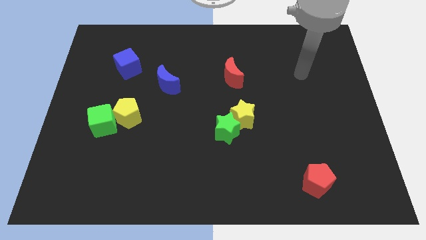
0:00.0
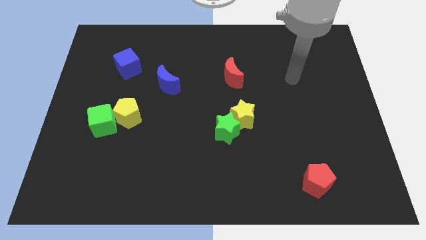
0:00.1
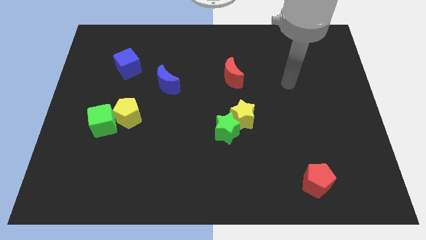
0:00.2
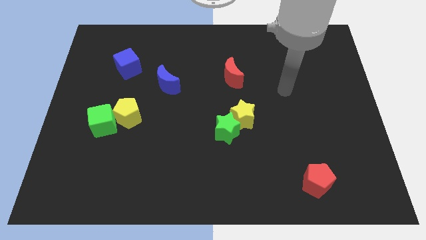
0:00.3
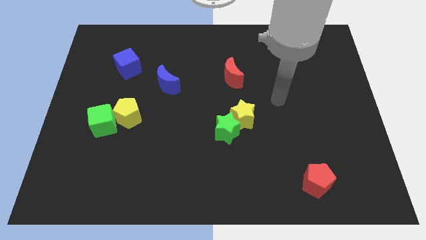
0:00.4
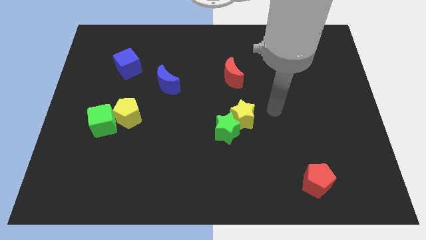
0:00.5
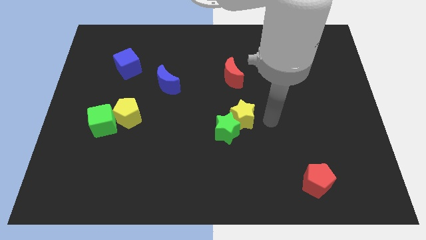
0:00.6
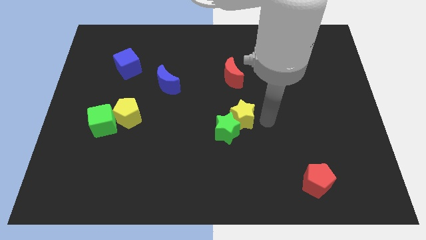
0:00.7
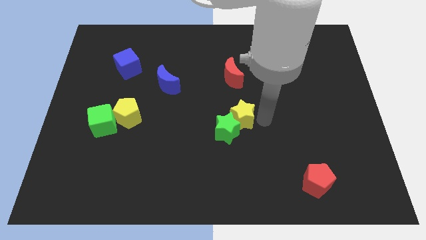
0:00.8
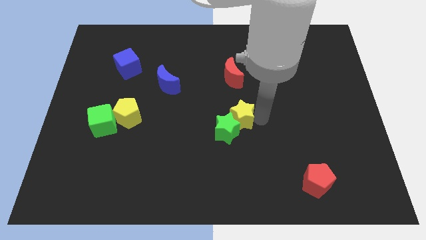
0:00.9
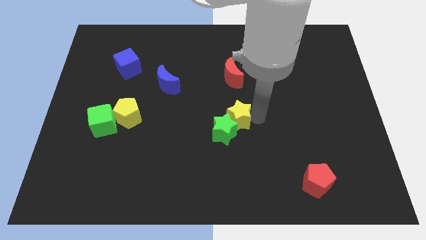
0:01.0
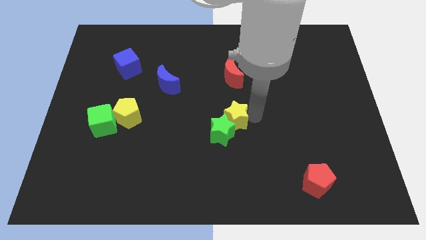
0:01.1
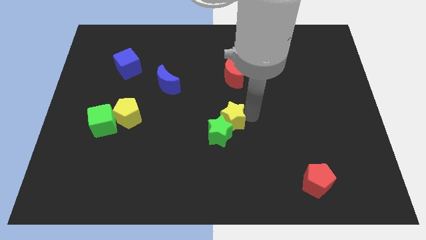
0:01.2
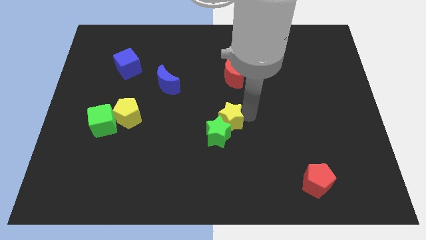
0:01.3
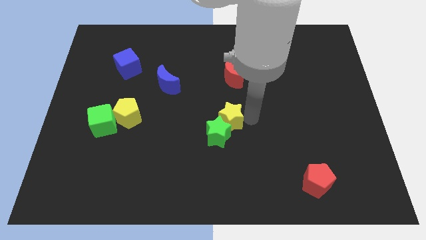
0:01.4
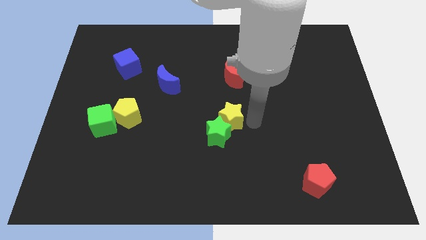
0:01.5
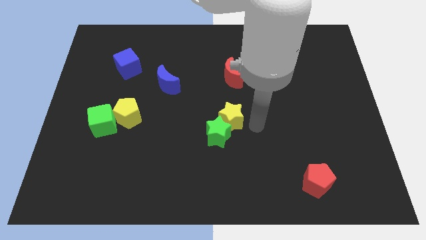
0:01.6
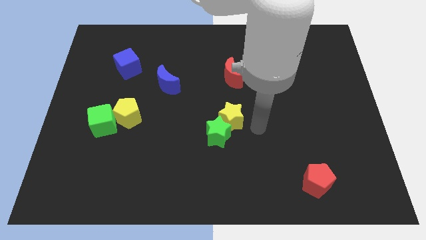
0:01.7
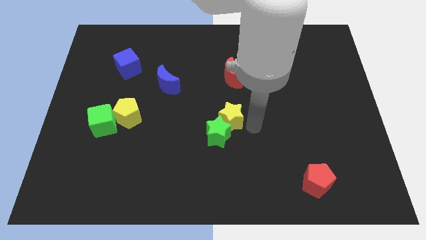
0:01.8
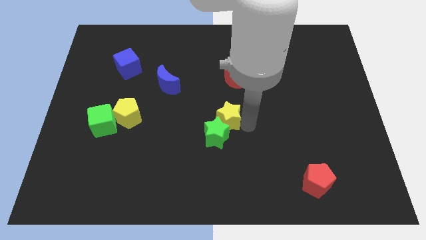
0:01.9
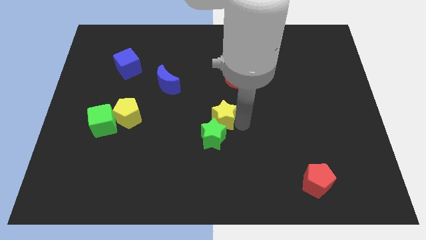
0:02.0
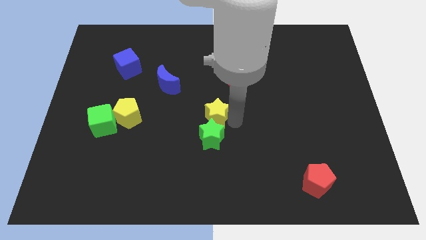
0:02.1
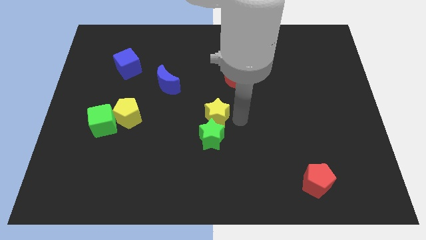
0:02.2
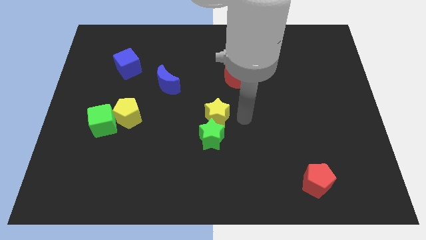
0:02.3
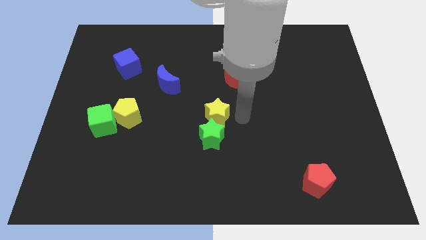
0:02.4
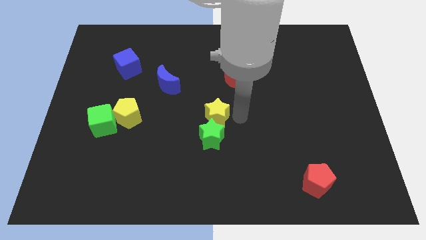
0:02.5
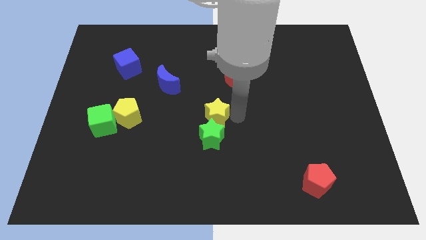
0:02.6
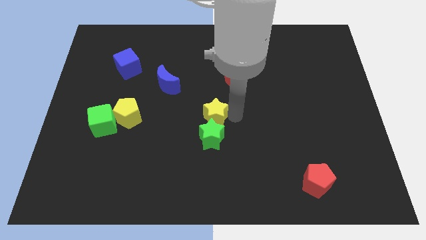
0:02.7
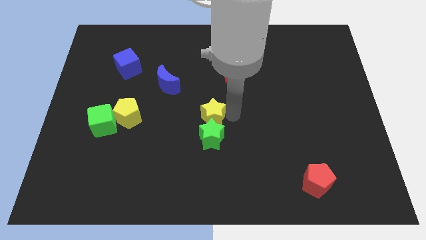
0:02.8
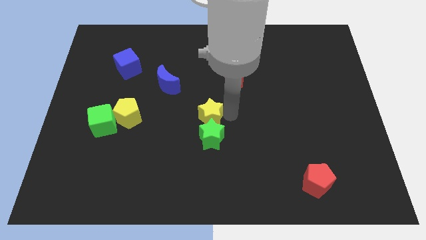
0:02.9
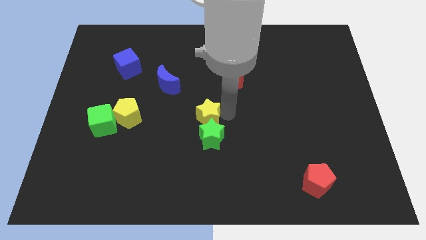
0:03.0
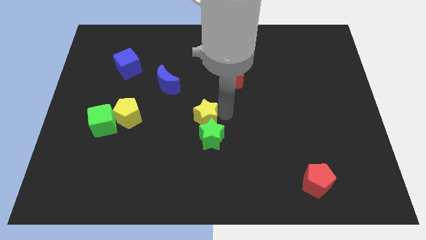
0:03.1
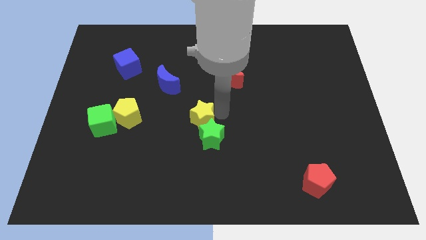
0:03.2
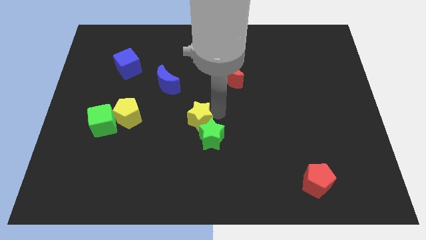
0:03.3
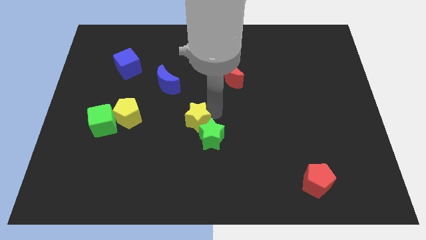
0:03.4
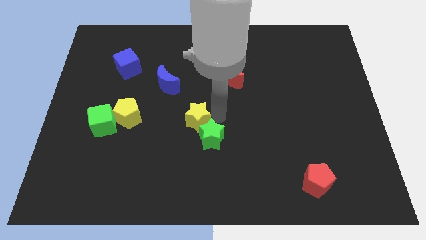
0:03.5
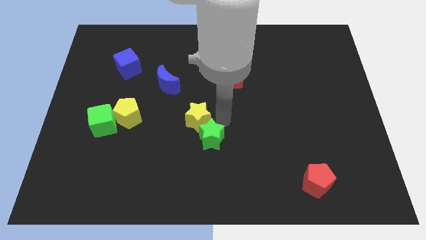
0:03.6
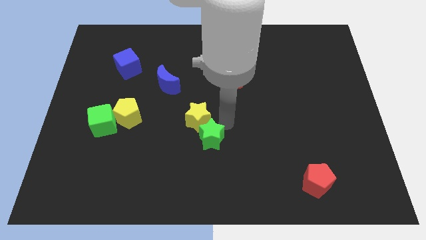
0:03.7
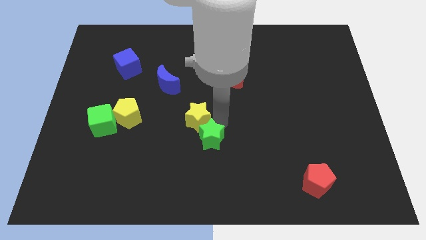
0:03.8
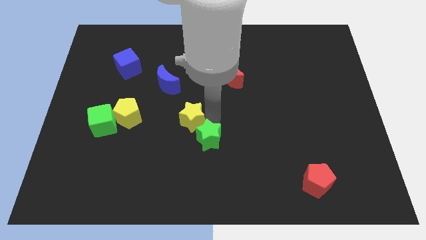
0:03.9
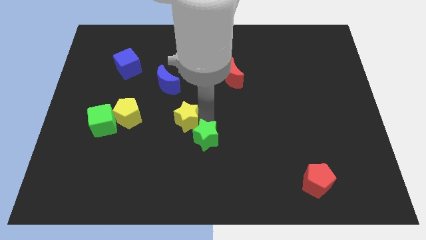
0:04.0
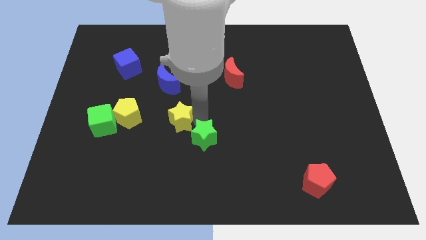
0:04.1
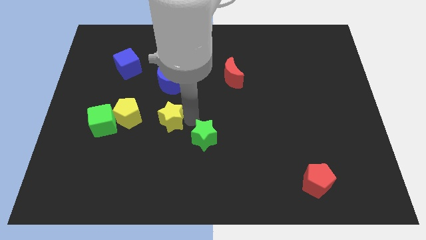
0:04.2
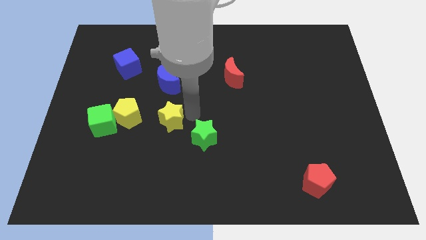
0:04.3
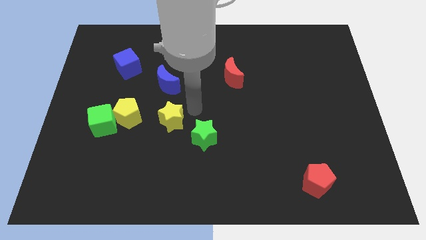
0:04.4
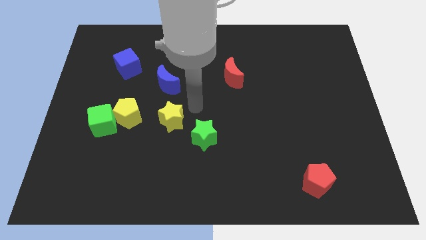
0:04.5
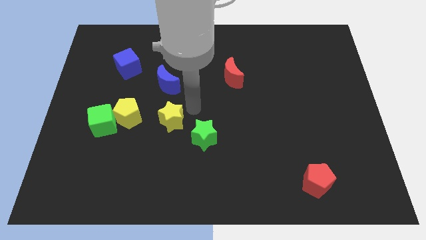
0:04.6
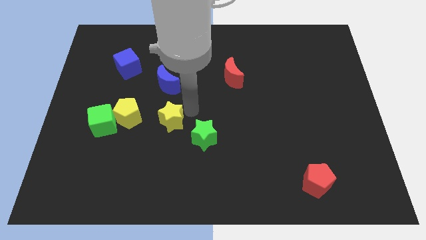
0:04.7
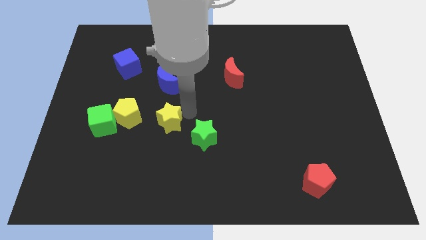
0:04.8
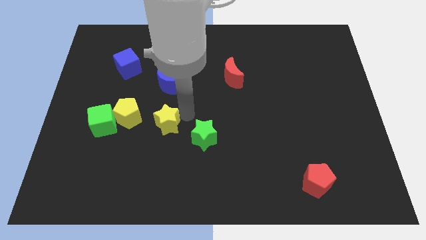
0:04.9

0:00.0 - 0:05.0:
push the yellow star to the bottom right side of the yellow pentagon

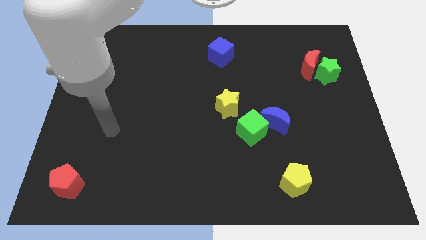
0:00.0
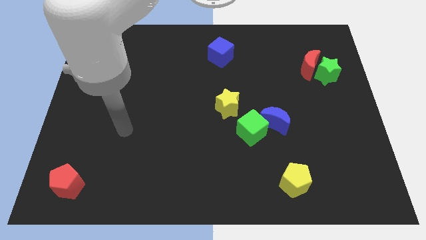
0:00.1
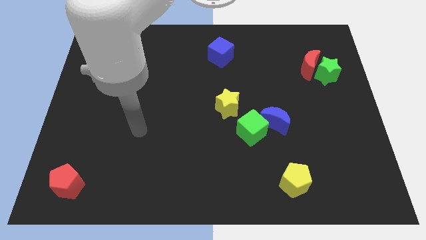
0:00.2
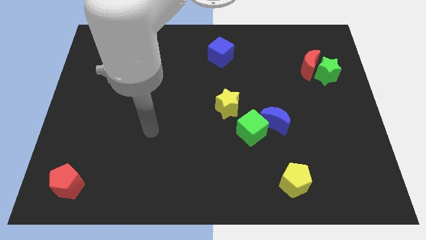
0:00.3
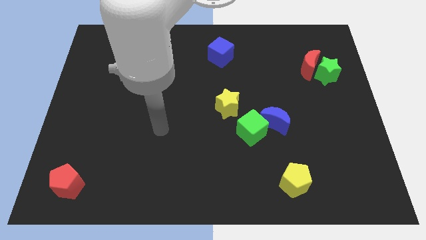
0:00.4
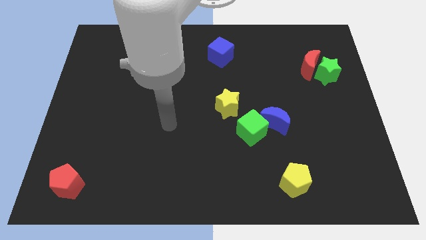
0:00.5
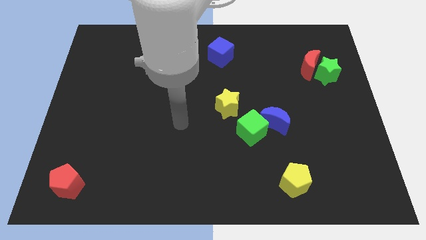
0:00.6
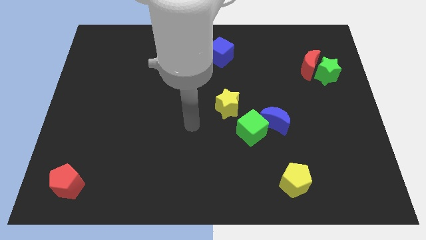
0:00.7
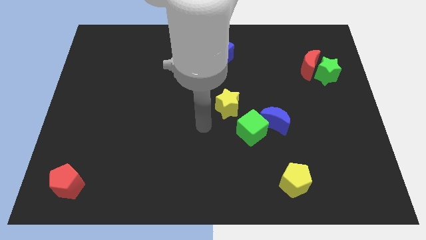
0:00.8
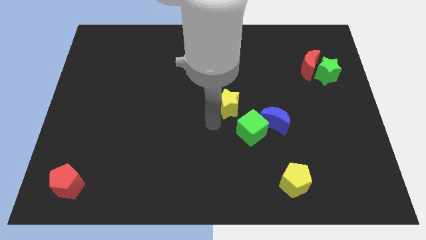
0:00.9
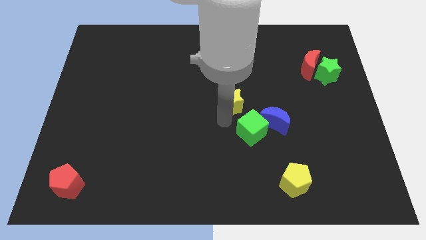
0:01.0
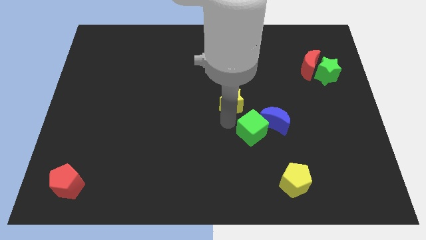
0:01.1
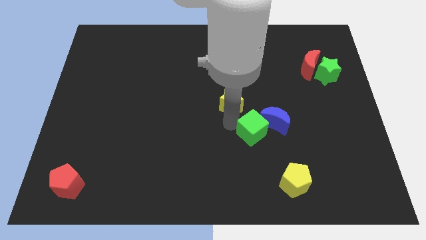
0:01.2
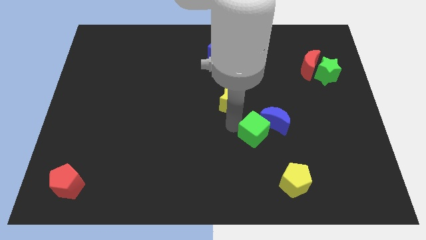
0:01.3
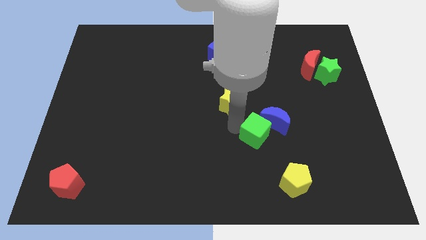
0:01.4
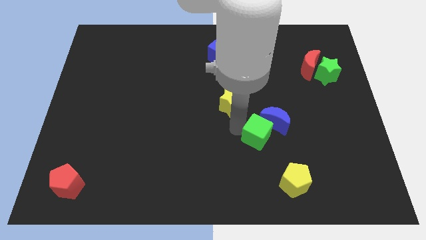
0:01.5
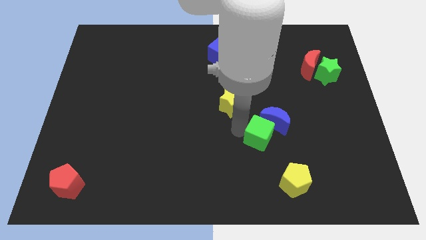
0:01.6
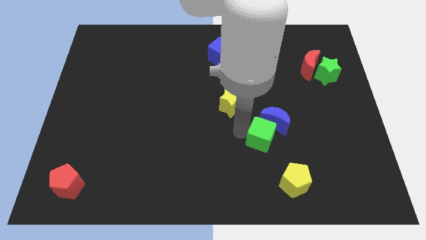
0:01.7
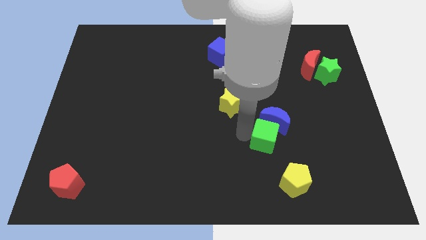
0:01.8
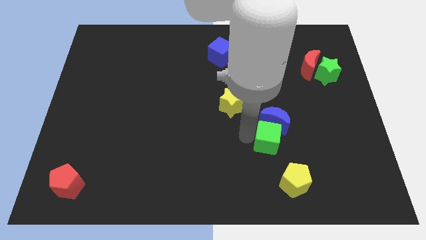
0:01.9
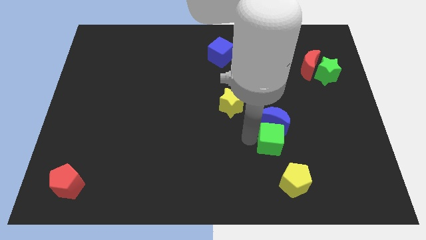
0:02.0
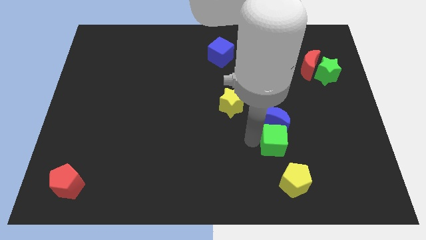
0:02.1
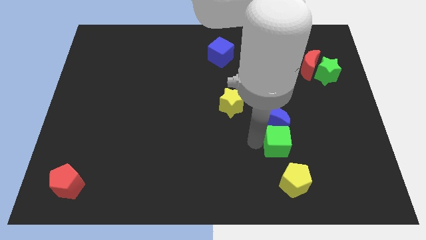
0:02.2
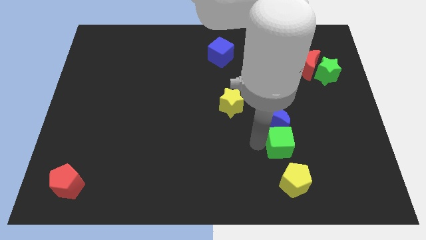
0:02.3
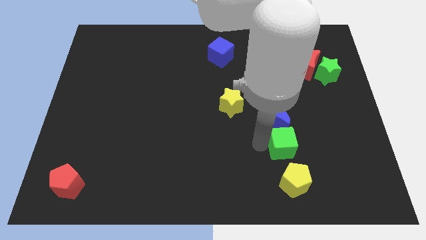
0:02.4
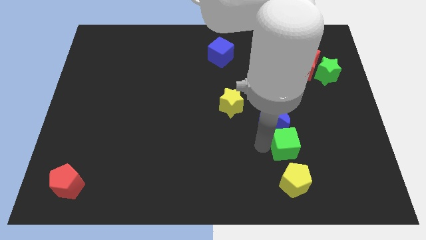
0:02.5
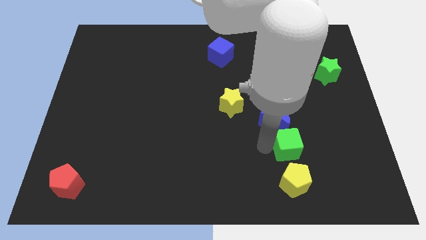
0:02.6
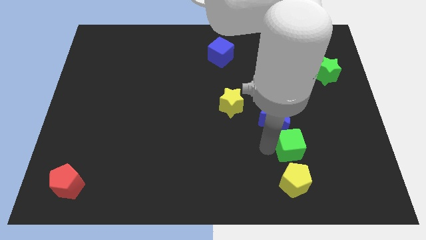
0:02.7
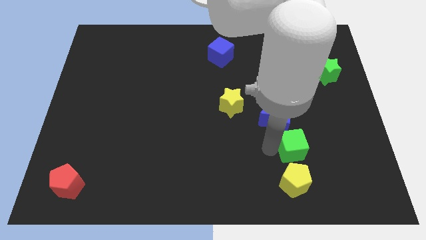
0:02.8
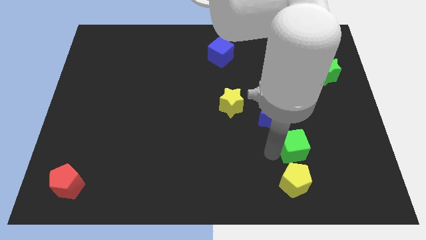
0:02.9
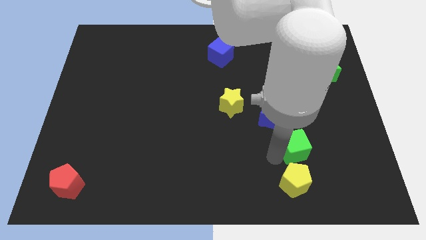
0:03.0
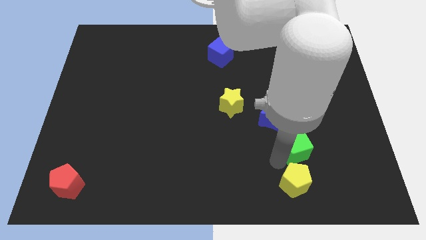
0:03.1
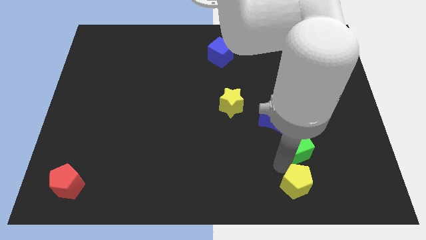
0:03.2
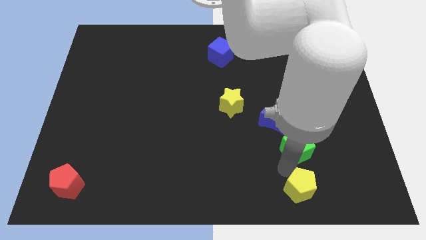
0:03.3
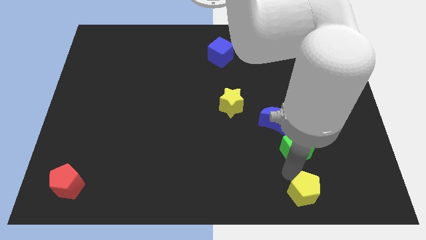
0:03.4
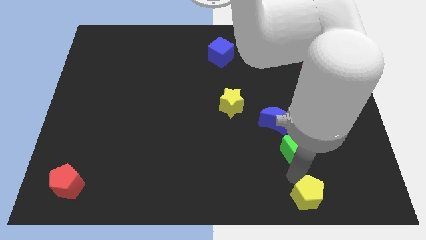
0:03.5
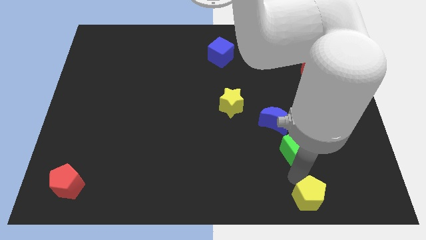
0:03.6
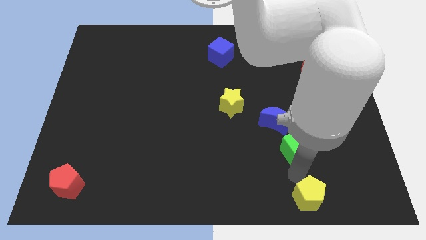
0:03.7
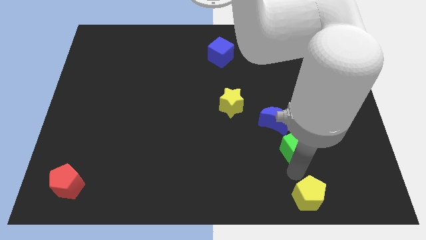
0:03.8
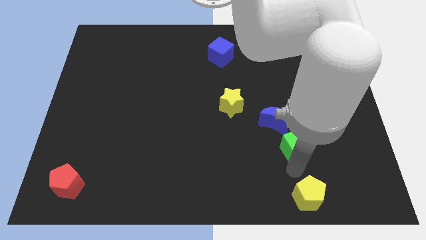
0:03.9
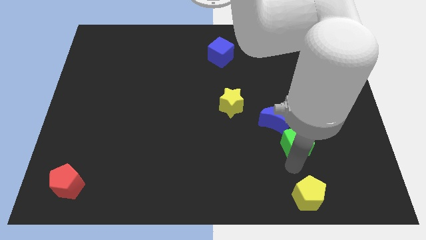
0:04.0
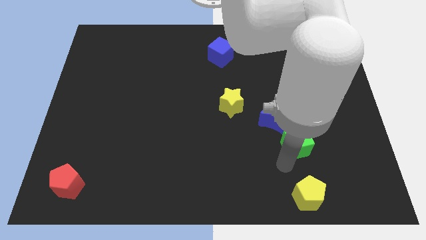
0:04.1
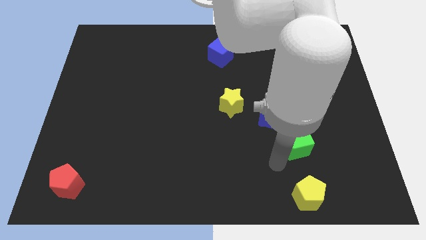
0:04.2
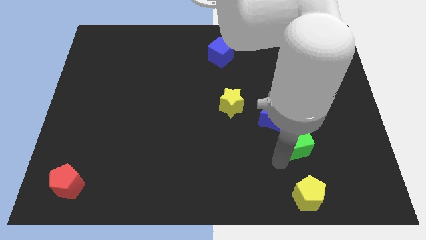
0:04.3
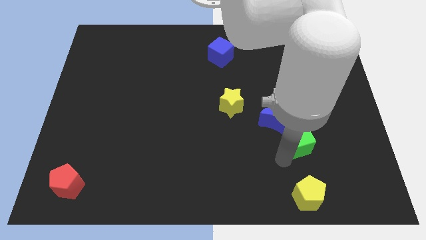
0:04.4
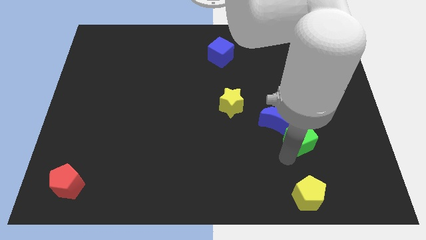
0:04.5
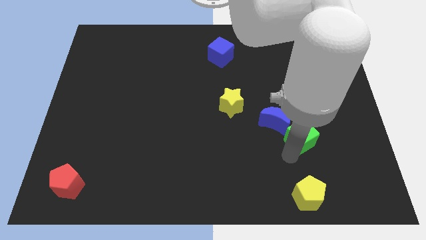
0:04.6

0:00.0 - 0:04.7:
push the green cube to the right of the blue moon
